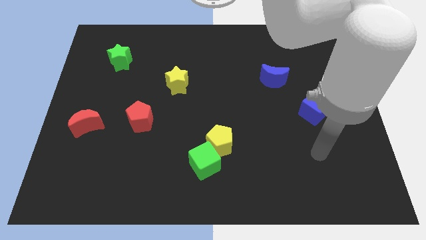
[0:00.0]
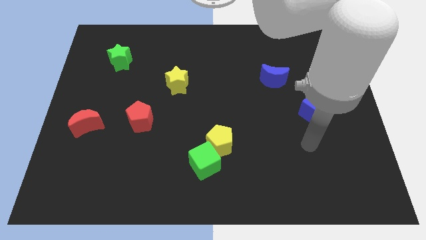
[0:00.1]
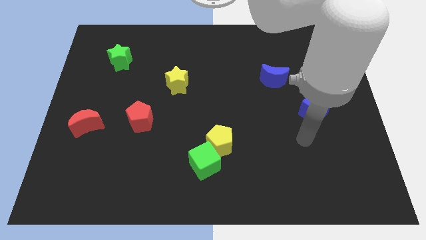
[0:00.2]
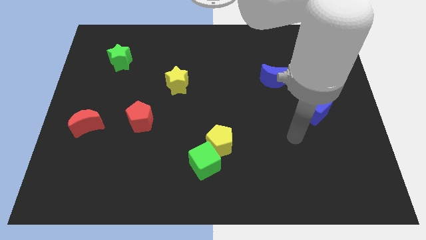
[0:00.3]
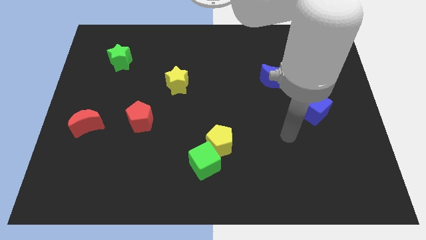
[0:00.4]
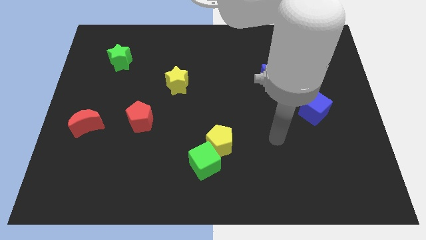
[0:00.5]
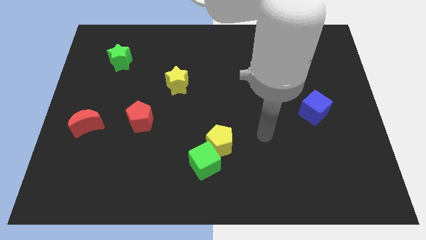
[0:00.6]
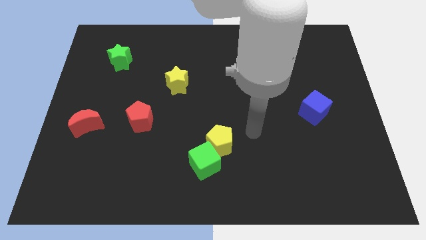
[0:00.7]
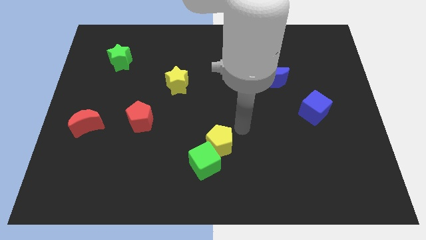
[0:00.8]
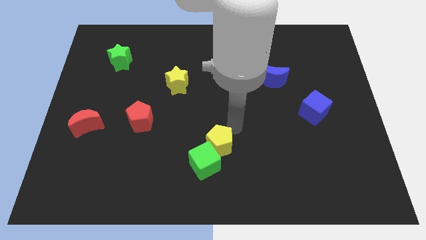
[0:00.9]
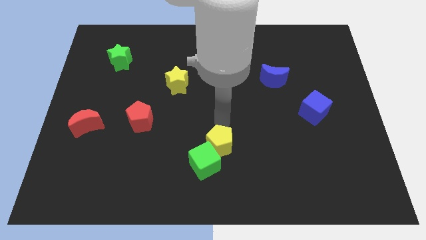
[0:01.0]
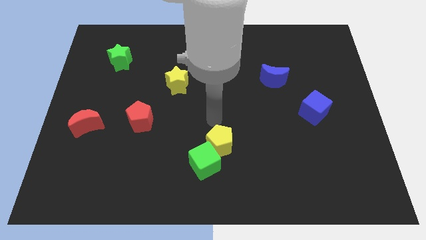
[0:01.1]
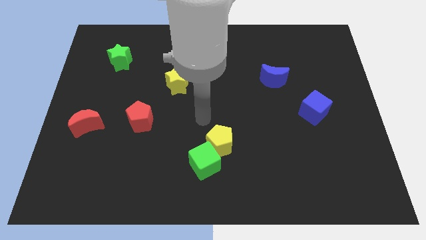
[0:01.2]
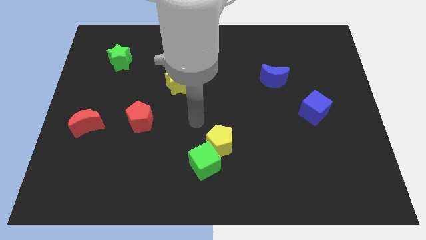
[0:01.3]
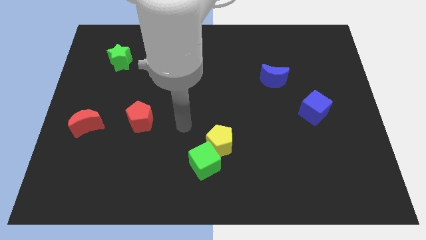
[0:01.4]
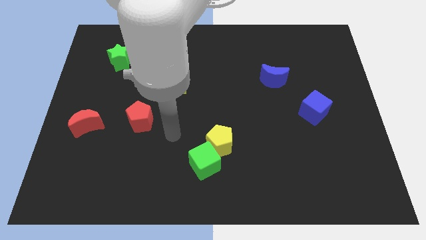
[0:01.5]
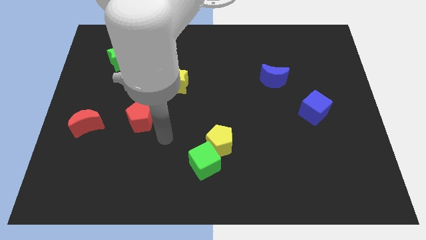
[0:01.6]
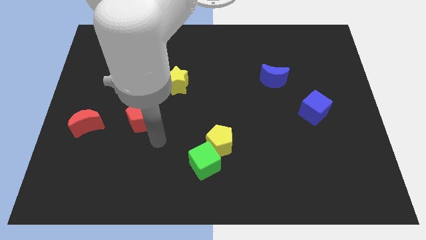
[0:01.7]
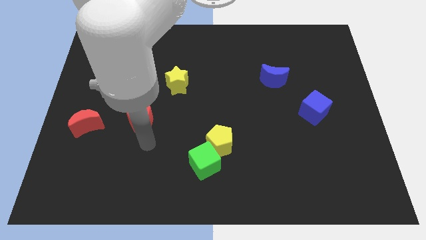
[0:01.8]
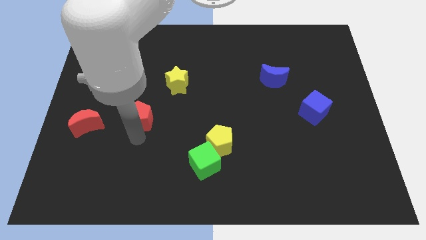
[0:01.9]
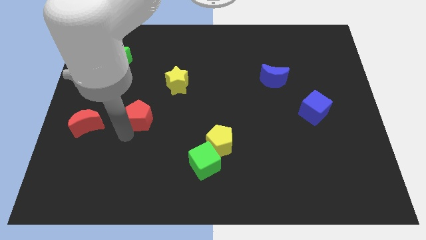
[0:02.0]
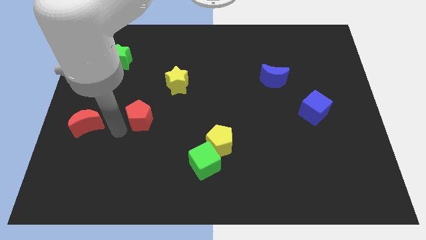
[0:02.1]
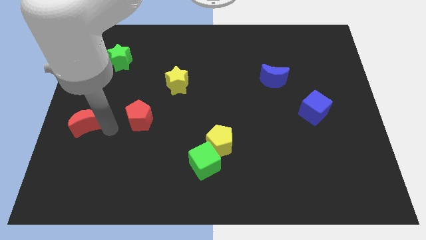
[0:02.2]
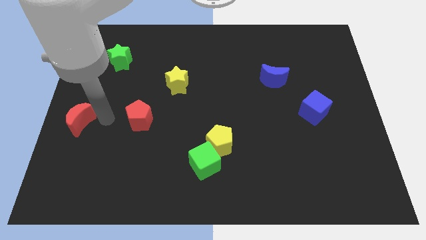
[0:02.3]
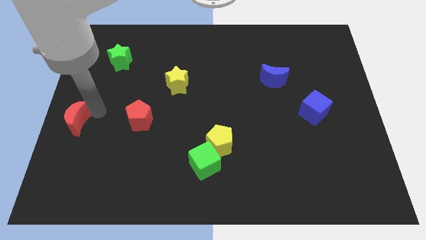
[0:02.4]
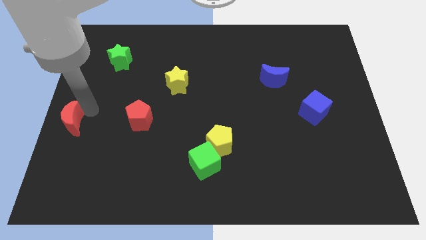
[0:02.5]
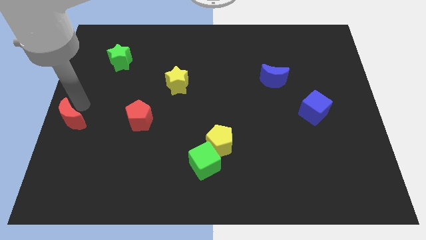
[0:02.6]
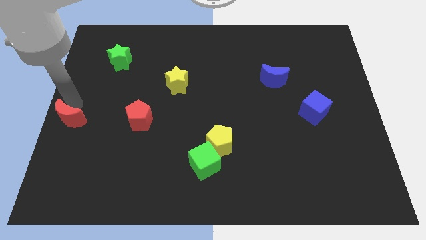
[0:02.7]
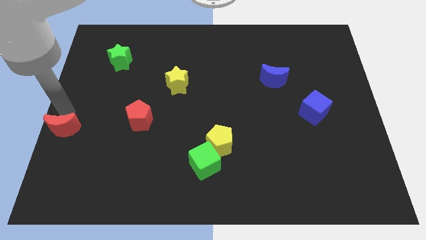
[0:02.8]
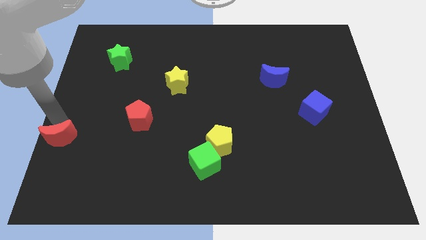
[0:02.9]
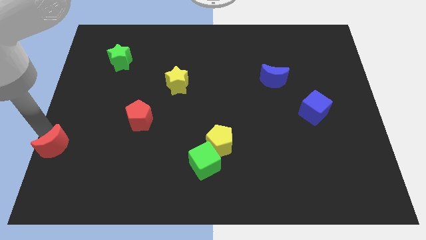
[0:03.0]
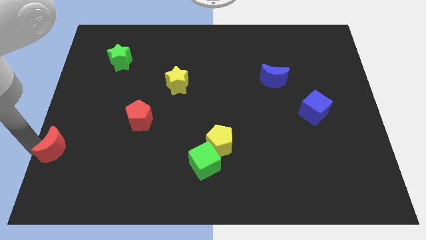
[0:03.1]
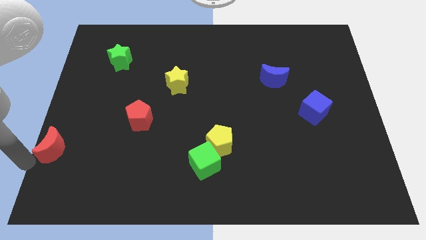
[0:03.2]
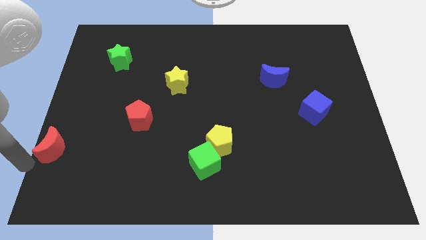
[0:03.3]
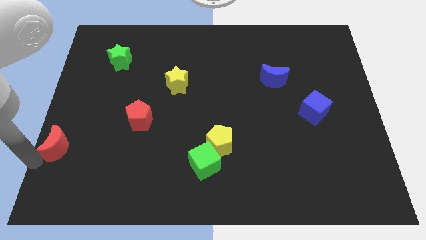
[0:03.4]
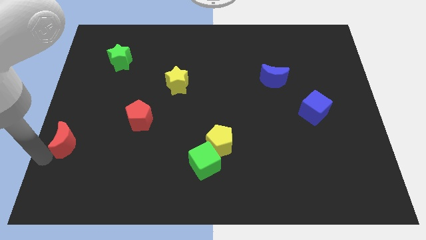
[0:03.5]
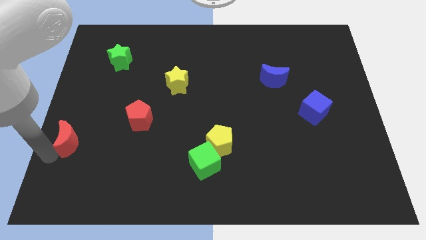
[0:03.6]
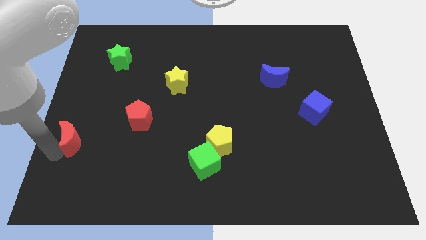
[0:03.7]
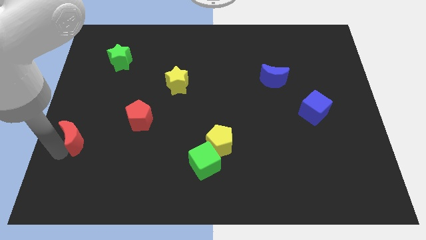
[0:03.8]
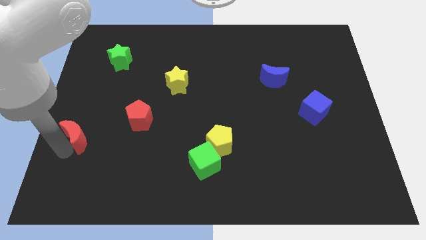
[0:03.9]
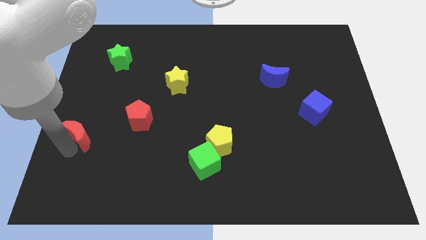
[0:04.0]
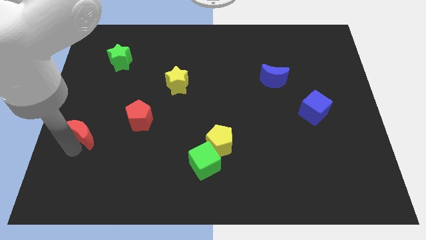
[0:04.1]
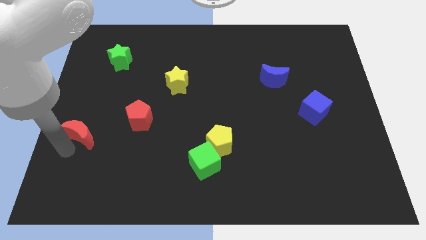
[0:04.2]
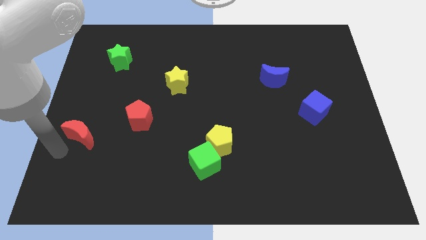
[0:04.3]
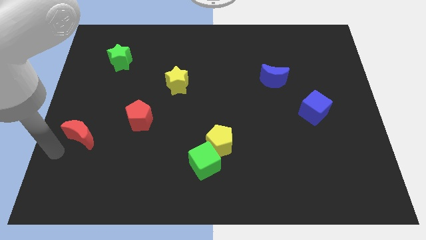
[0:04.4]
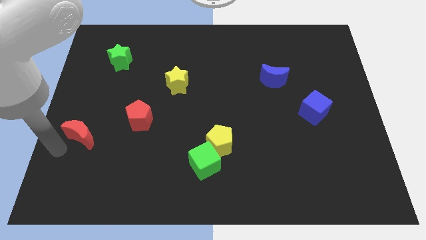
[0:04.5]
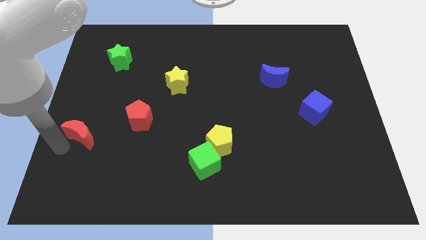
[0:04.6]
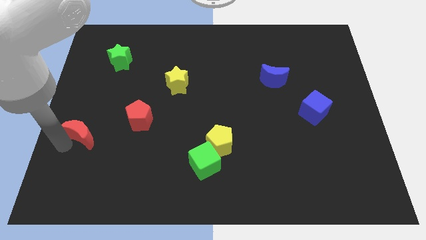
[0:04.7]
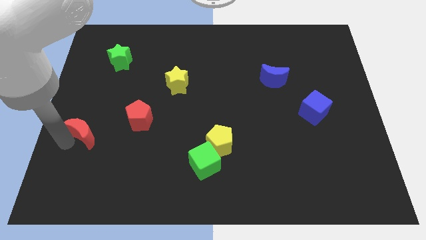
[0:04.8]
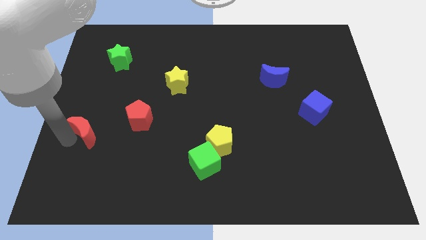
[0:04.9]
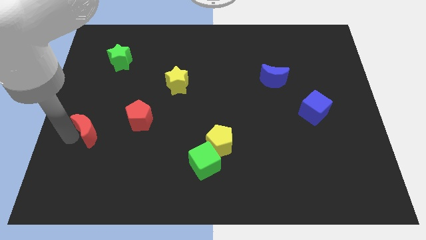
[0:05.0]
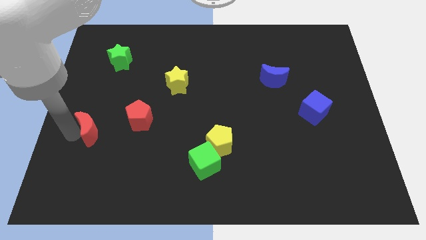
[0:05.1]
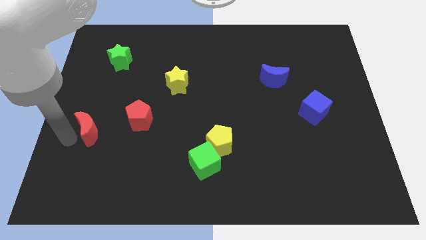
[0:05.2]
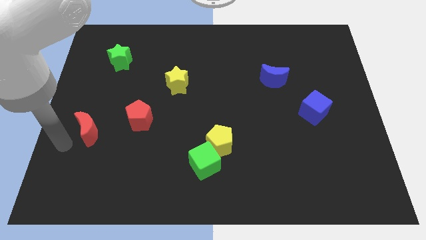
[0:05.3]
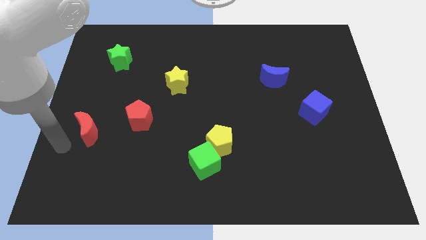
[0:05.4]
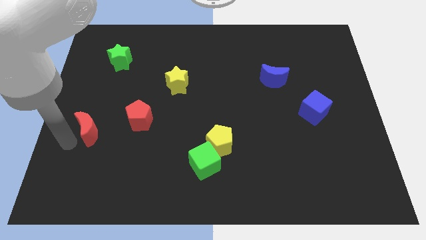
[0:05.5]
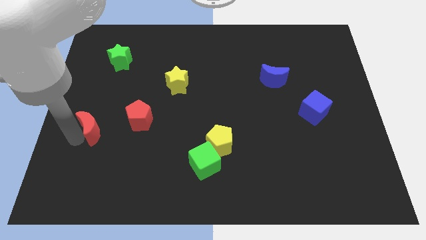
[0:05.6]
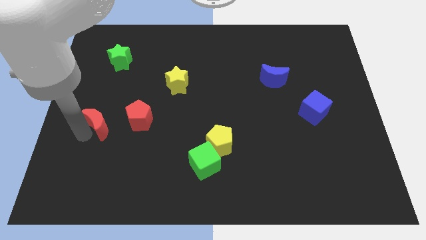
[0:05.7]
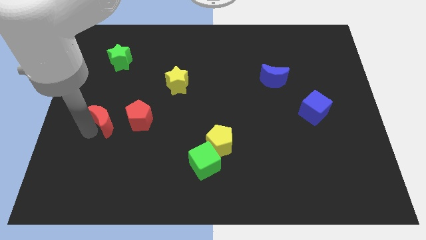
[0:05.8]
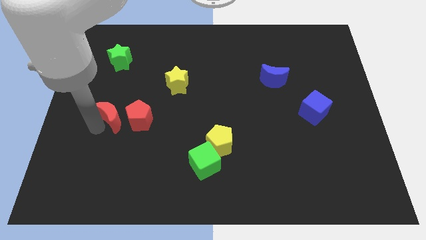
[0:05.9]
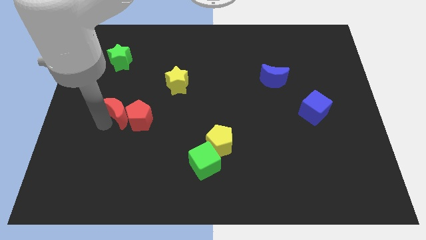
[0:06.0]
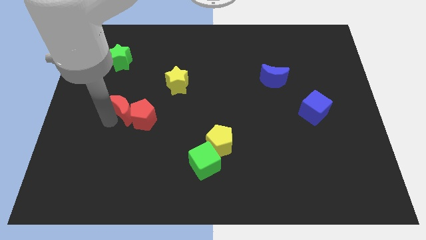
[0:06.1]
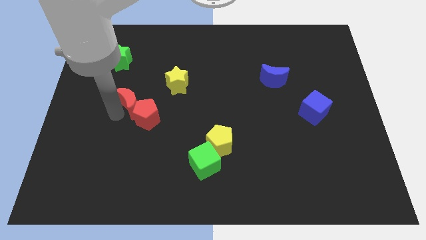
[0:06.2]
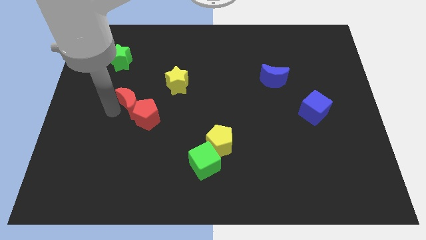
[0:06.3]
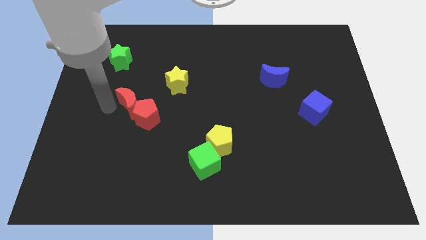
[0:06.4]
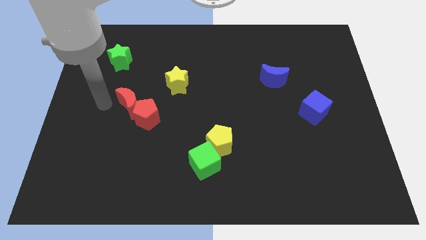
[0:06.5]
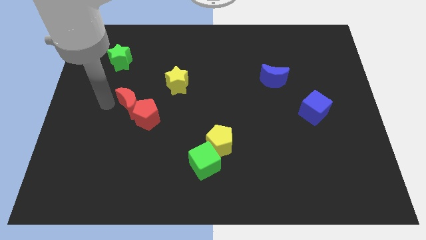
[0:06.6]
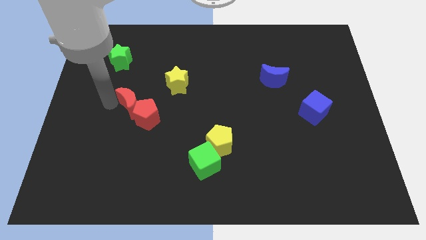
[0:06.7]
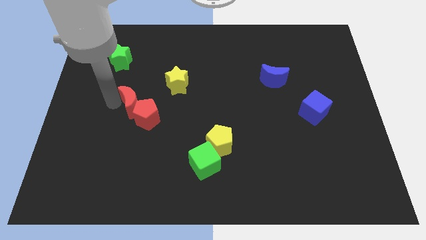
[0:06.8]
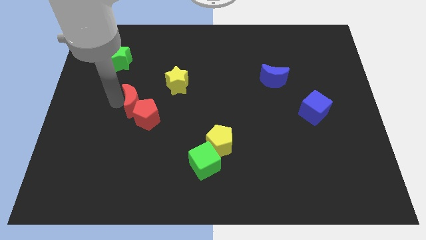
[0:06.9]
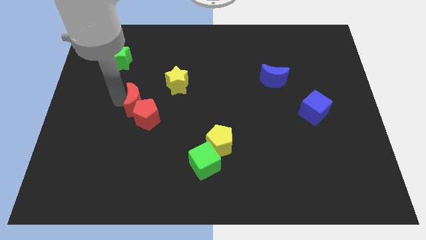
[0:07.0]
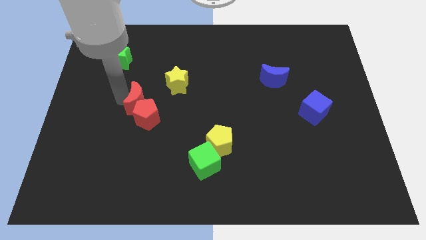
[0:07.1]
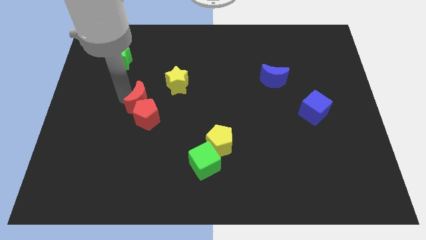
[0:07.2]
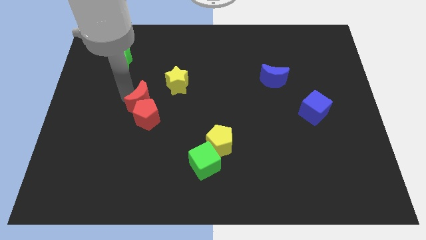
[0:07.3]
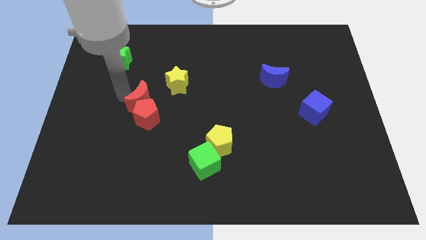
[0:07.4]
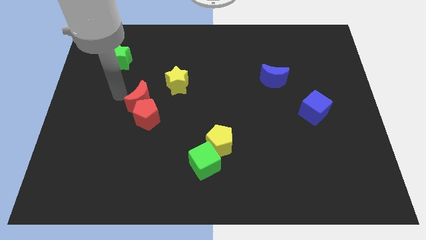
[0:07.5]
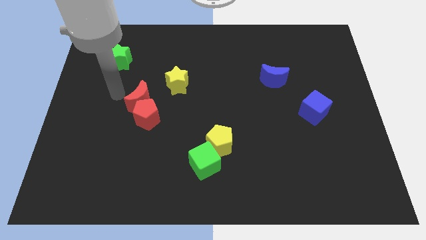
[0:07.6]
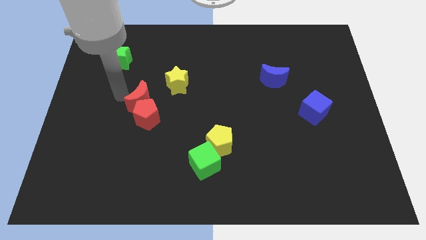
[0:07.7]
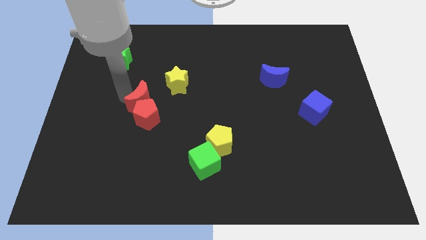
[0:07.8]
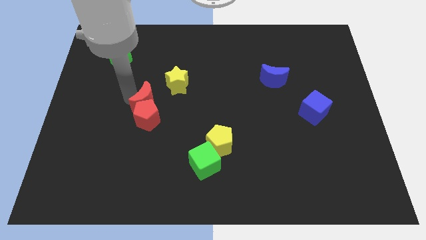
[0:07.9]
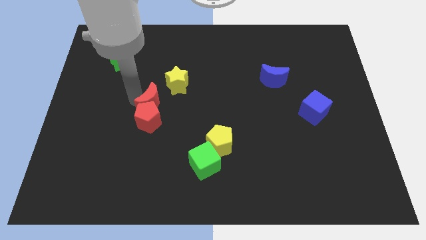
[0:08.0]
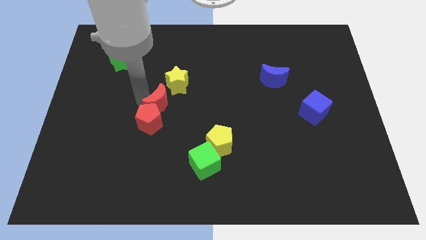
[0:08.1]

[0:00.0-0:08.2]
move the red moon below the yellow star
